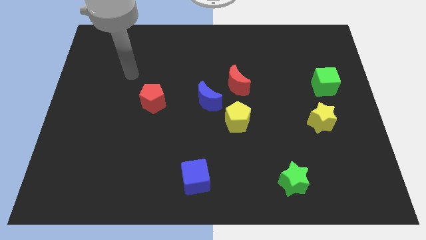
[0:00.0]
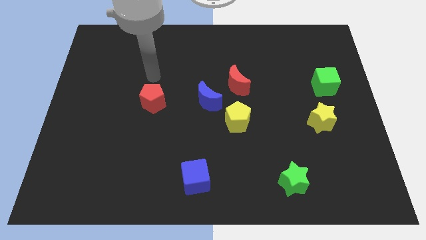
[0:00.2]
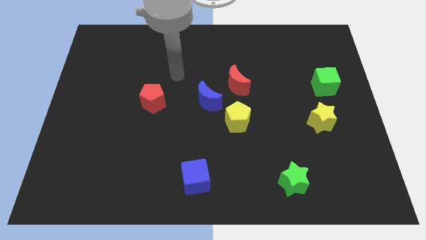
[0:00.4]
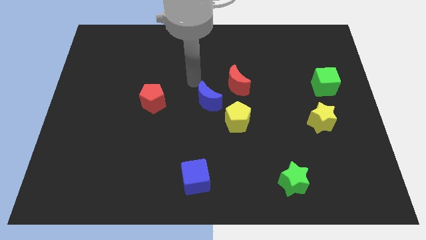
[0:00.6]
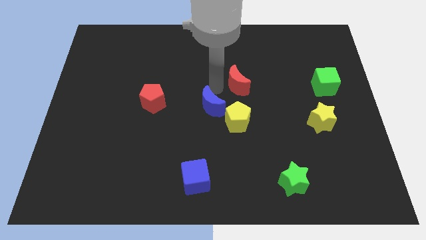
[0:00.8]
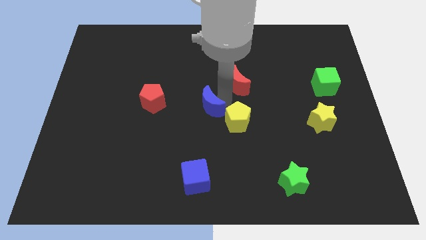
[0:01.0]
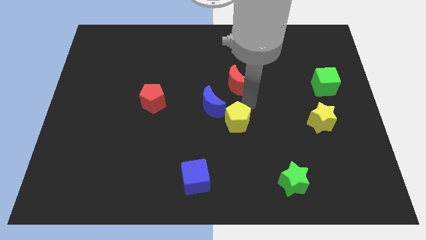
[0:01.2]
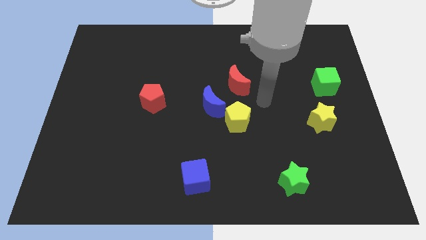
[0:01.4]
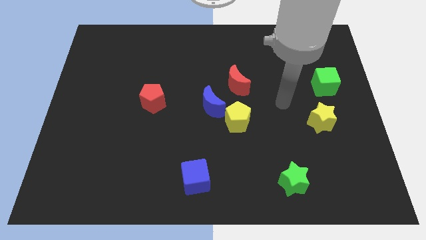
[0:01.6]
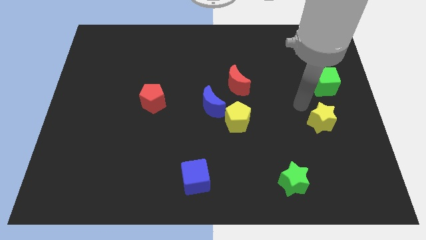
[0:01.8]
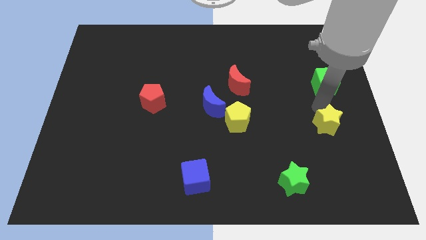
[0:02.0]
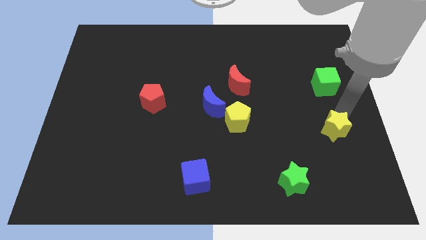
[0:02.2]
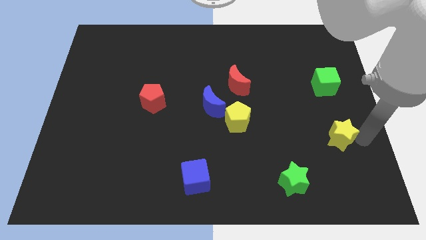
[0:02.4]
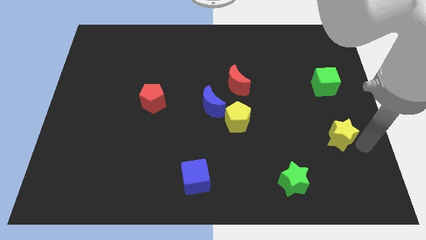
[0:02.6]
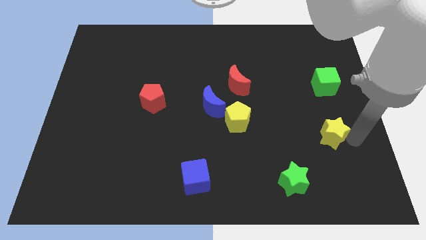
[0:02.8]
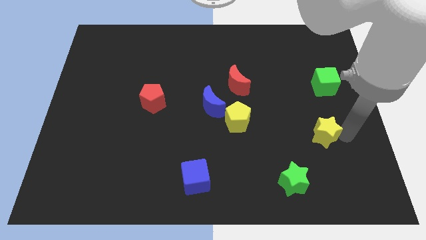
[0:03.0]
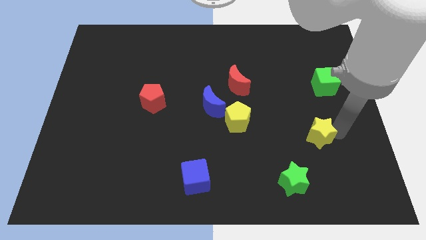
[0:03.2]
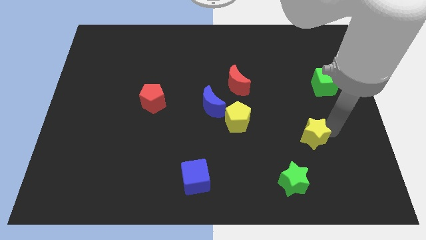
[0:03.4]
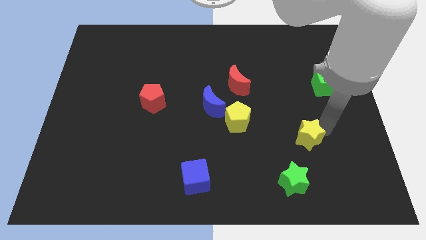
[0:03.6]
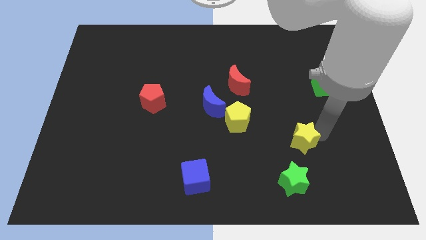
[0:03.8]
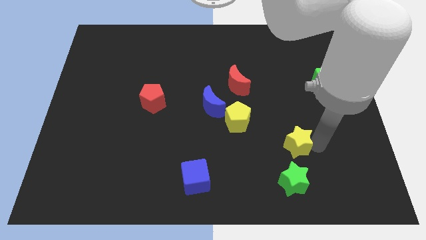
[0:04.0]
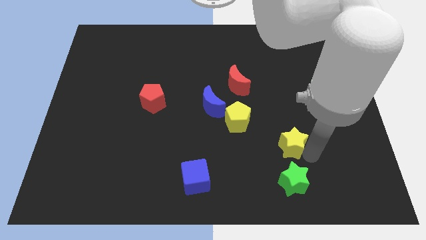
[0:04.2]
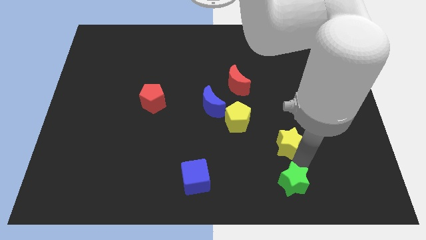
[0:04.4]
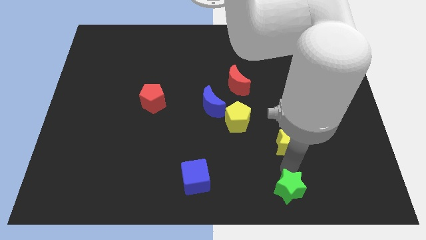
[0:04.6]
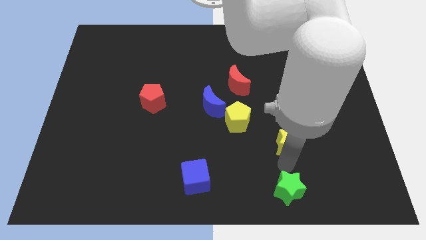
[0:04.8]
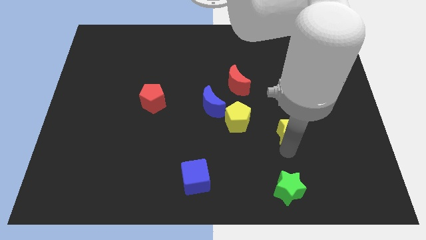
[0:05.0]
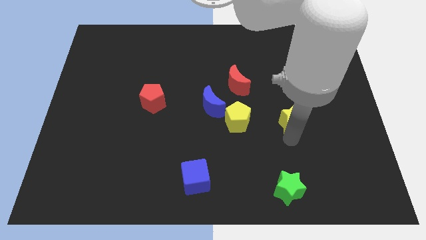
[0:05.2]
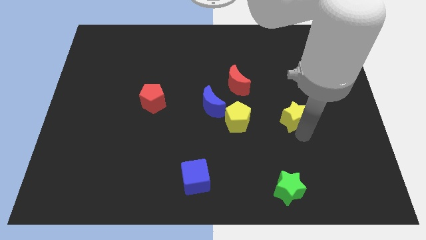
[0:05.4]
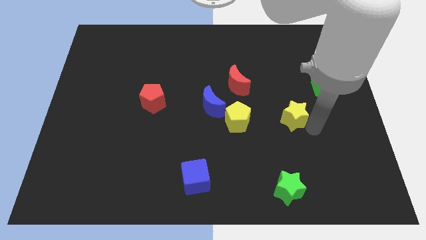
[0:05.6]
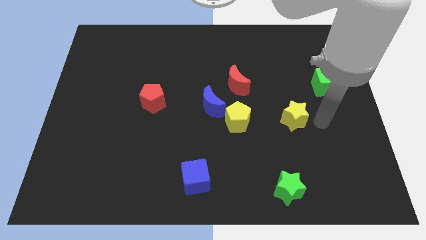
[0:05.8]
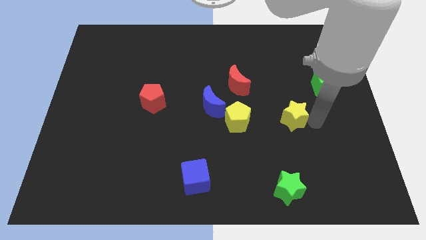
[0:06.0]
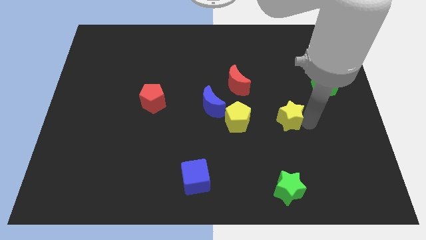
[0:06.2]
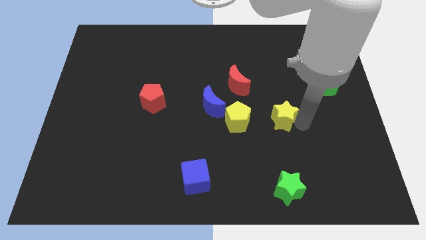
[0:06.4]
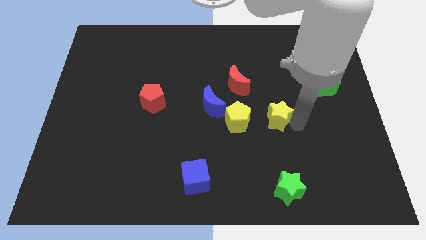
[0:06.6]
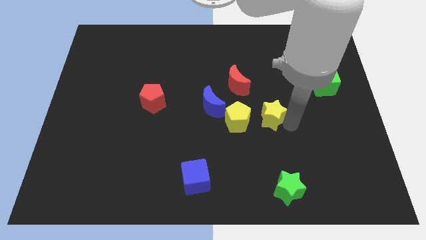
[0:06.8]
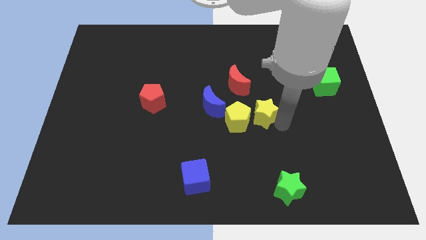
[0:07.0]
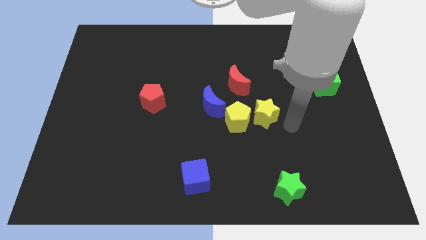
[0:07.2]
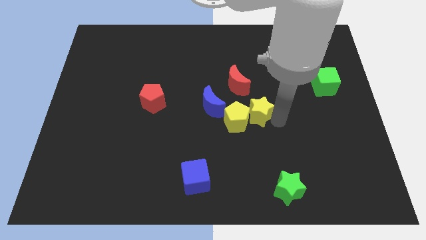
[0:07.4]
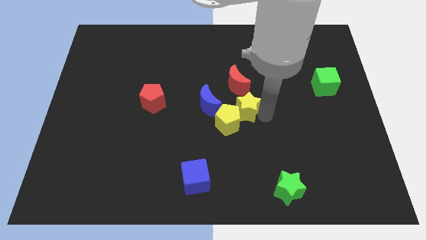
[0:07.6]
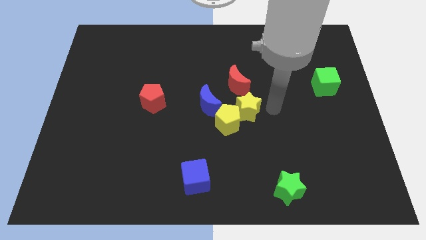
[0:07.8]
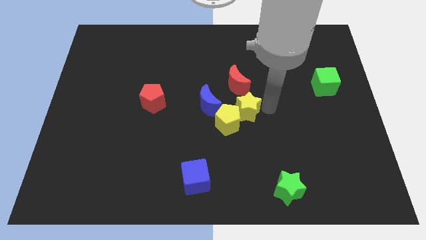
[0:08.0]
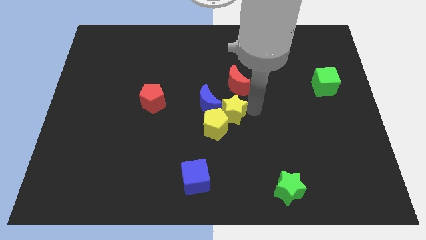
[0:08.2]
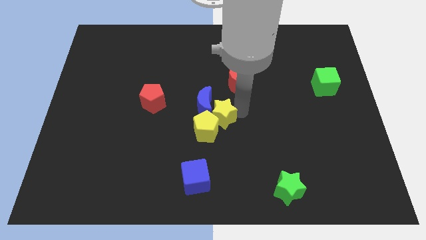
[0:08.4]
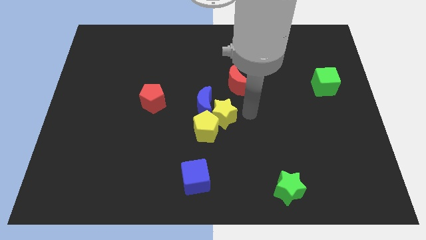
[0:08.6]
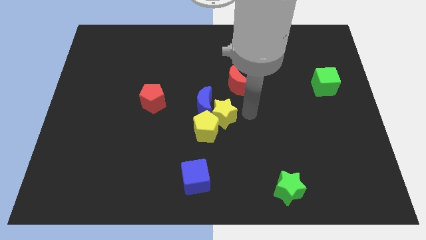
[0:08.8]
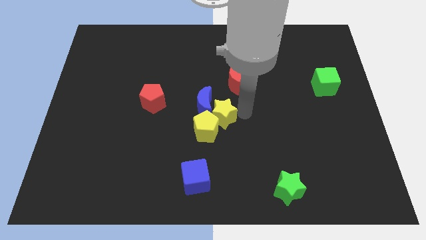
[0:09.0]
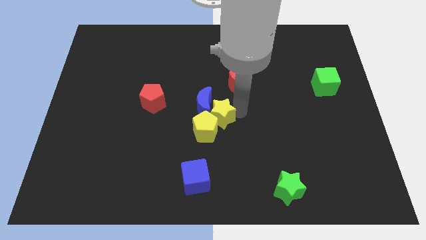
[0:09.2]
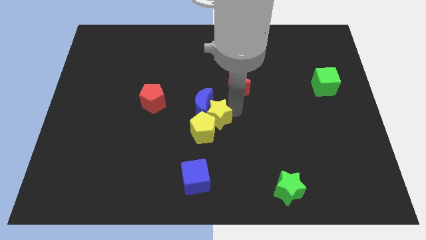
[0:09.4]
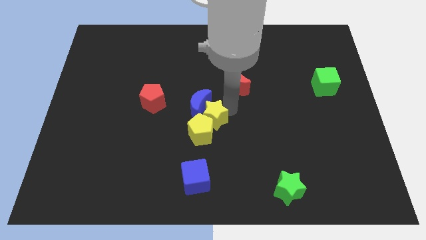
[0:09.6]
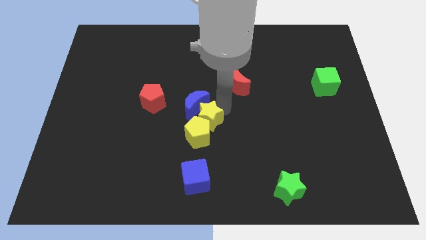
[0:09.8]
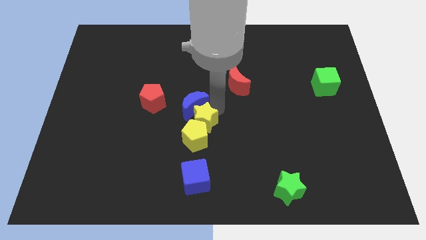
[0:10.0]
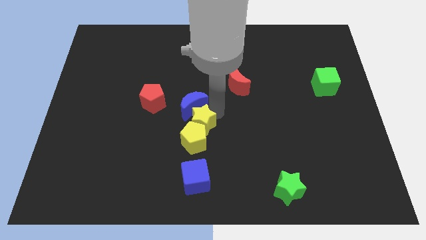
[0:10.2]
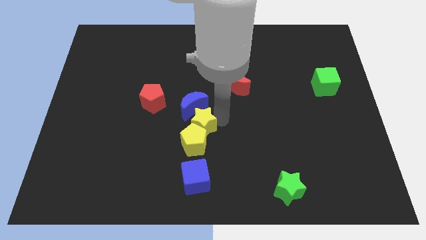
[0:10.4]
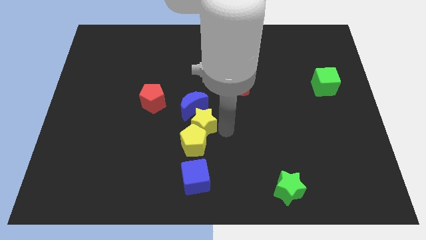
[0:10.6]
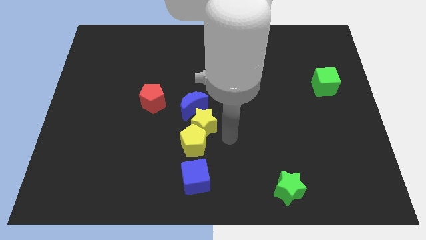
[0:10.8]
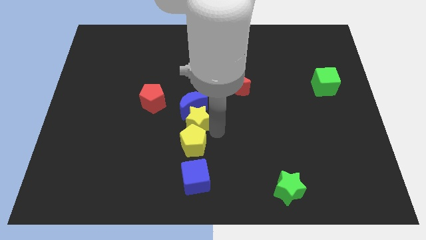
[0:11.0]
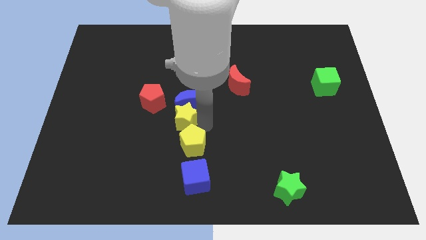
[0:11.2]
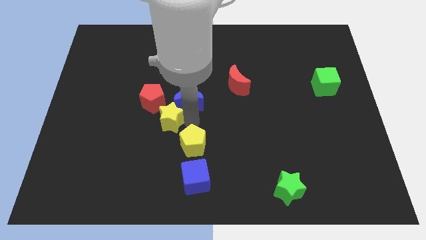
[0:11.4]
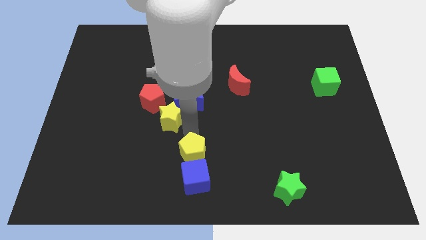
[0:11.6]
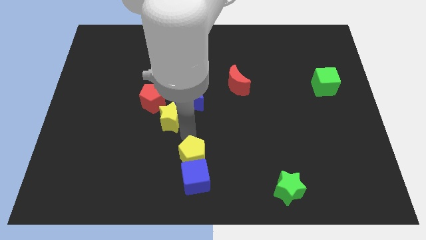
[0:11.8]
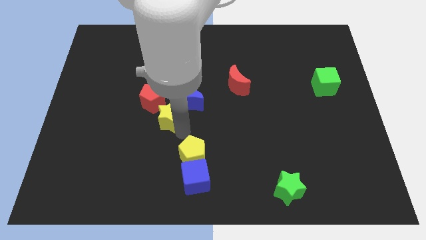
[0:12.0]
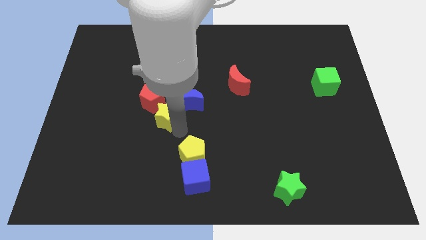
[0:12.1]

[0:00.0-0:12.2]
put the yellow star next to the red pentagon

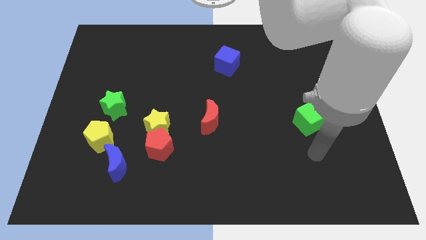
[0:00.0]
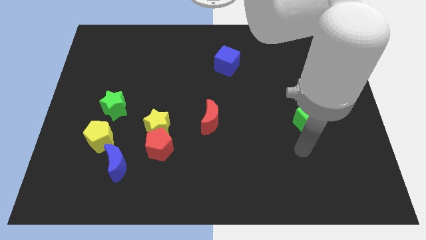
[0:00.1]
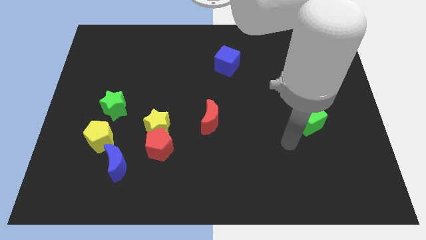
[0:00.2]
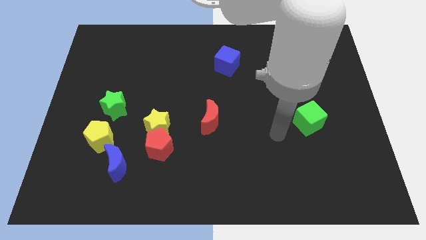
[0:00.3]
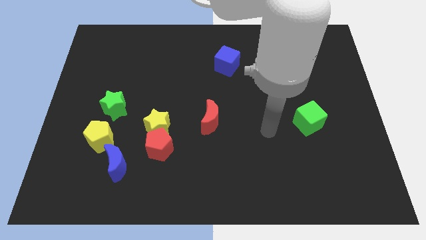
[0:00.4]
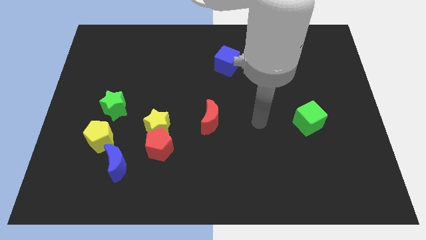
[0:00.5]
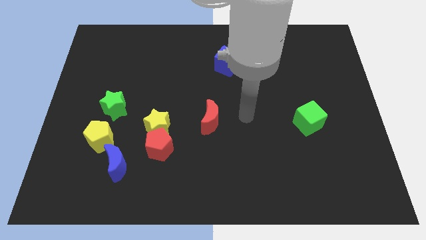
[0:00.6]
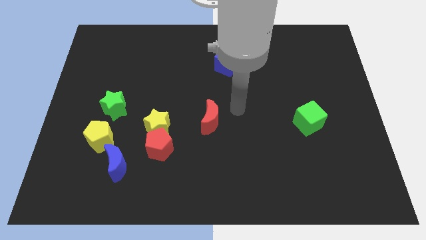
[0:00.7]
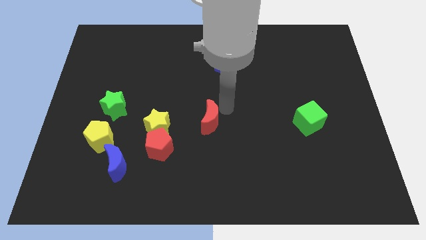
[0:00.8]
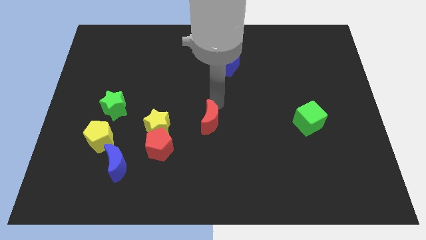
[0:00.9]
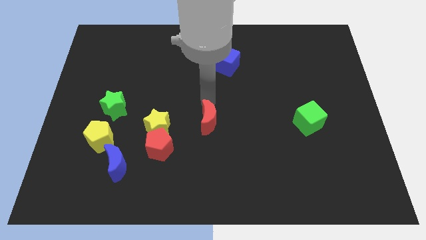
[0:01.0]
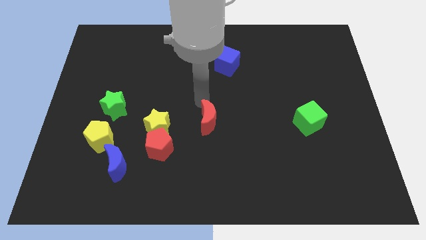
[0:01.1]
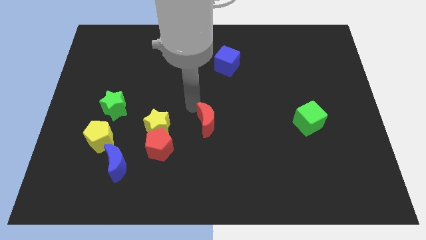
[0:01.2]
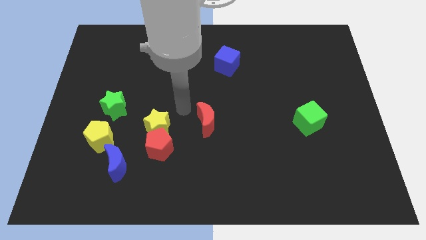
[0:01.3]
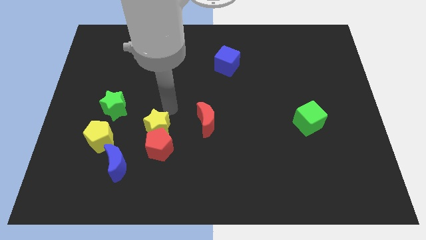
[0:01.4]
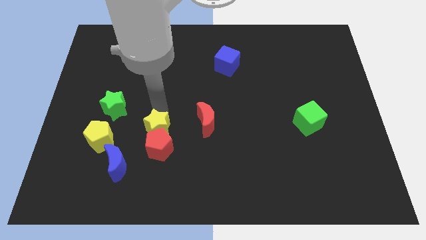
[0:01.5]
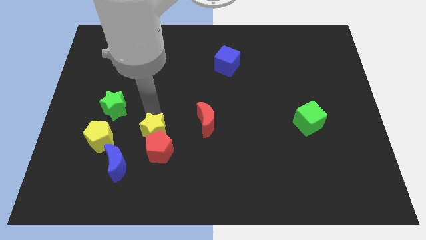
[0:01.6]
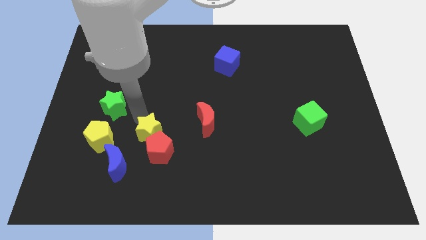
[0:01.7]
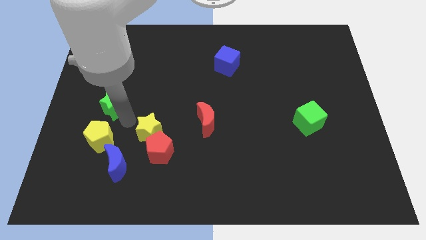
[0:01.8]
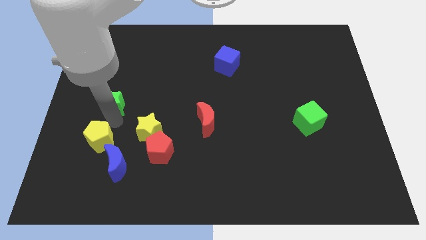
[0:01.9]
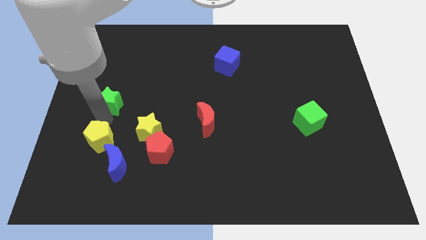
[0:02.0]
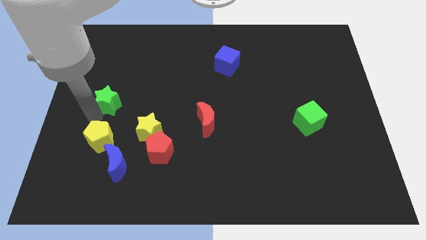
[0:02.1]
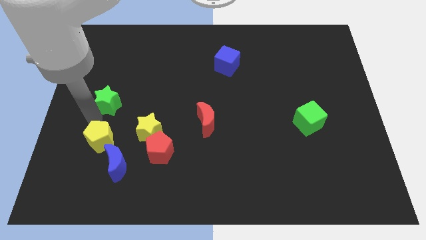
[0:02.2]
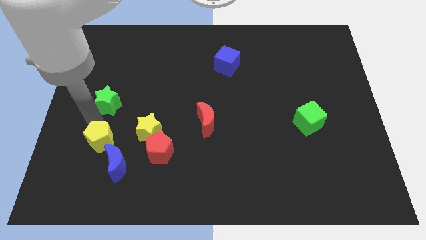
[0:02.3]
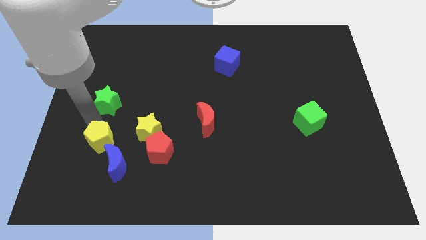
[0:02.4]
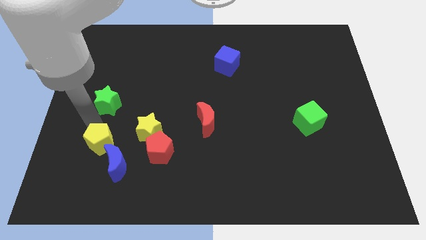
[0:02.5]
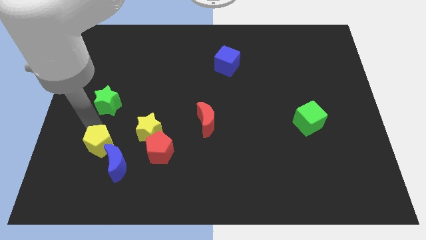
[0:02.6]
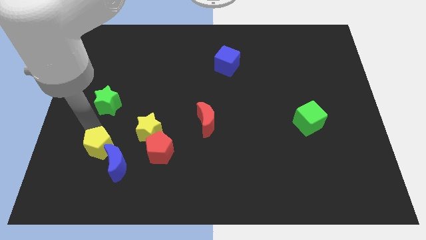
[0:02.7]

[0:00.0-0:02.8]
move the yellow pentagon to the blue moon
